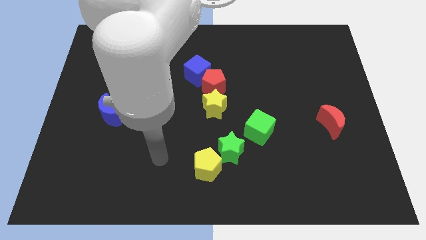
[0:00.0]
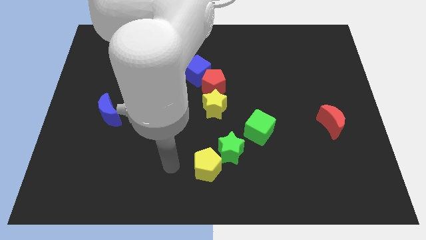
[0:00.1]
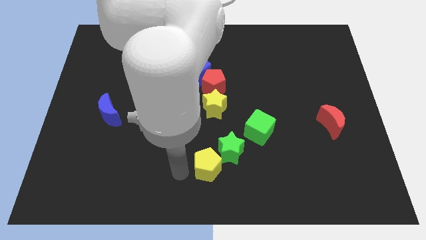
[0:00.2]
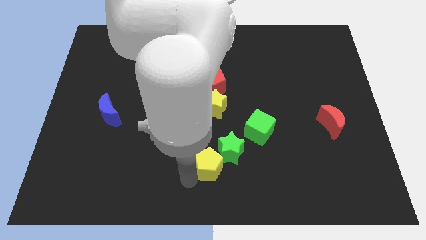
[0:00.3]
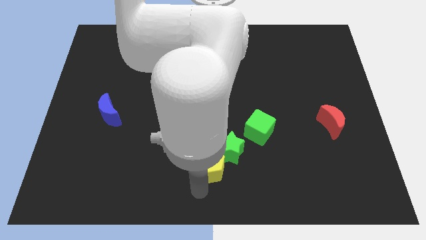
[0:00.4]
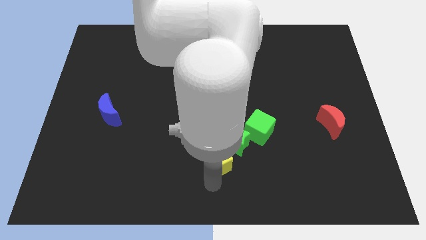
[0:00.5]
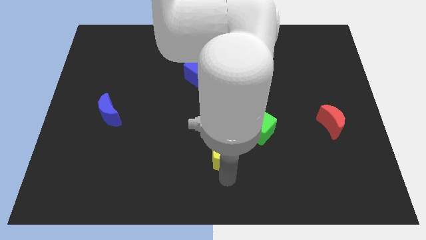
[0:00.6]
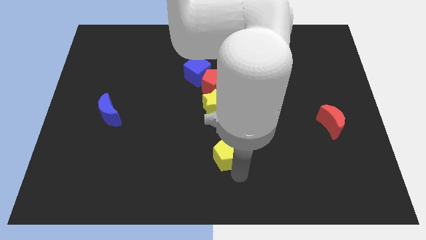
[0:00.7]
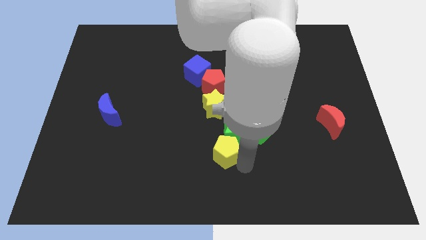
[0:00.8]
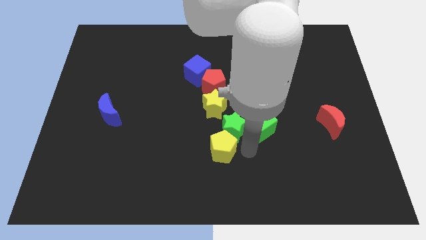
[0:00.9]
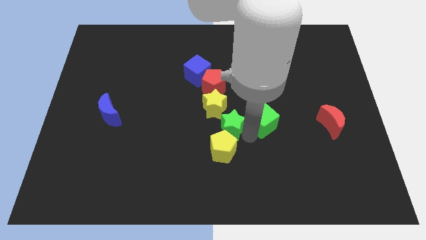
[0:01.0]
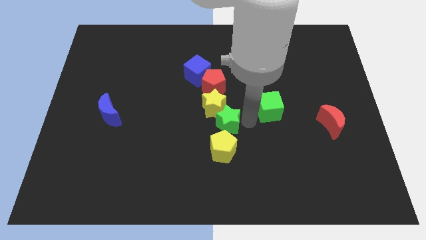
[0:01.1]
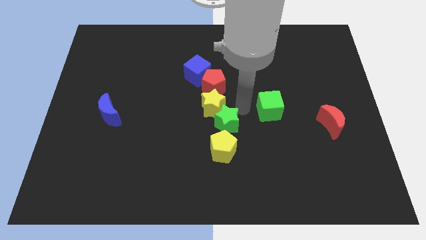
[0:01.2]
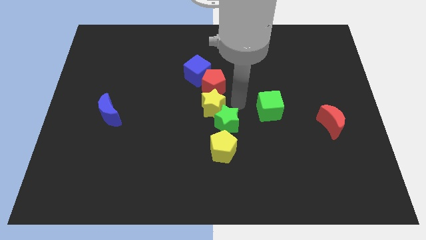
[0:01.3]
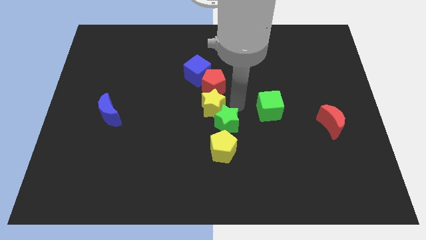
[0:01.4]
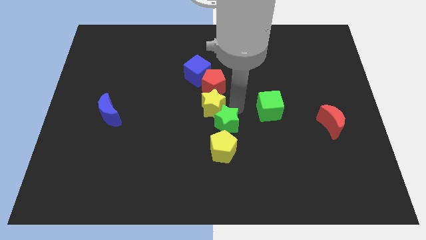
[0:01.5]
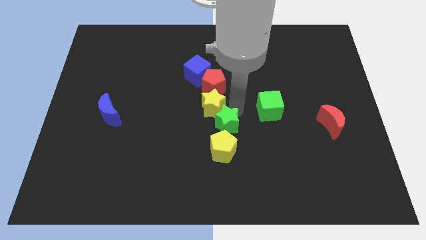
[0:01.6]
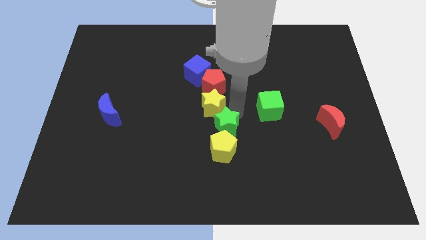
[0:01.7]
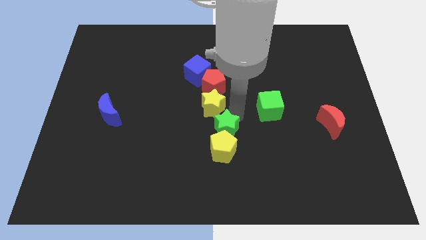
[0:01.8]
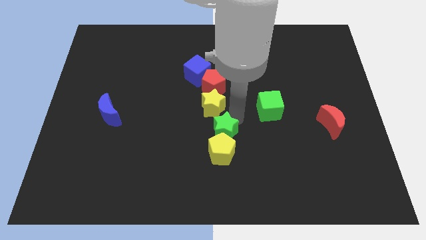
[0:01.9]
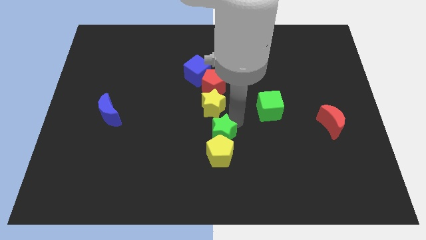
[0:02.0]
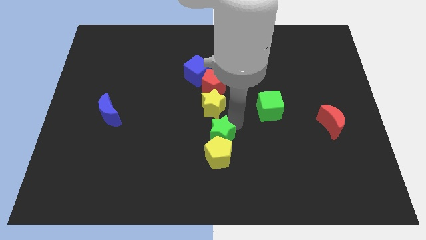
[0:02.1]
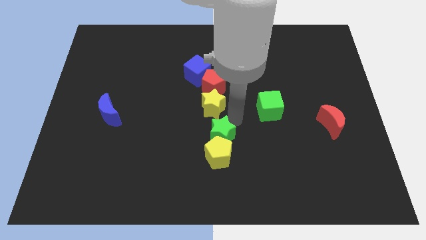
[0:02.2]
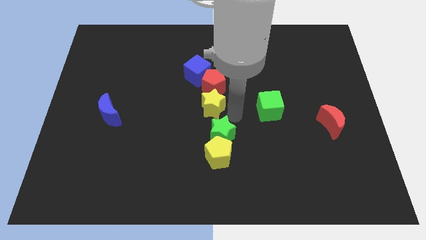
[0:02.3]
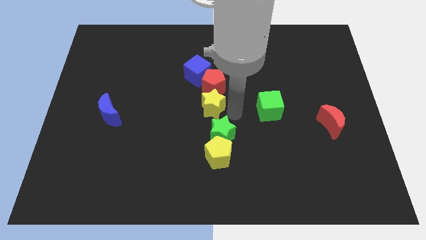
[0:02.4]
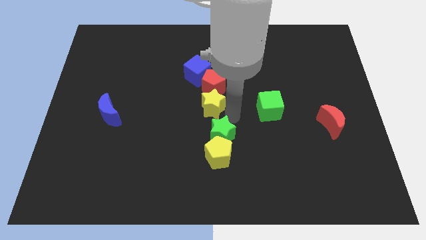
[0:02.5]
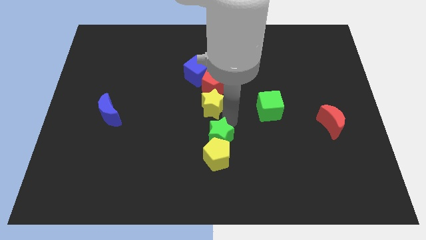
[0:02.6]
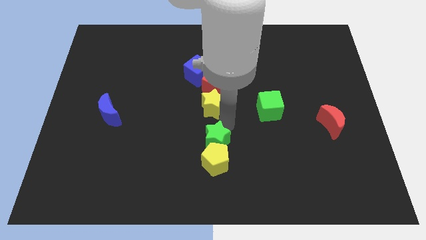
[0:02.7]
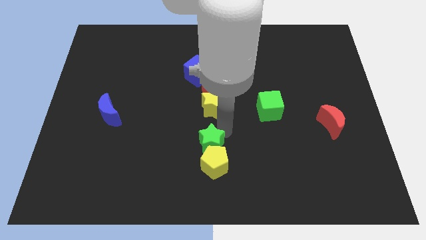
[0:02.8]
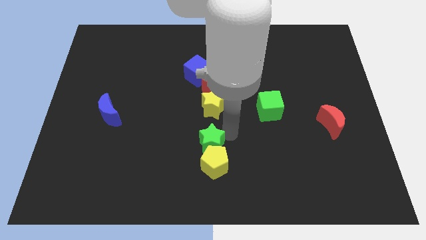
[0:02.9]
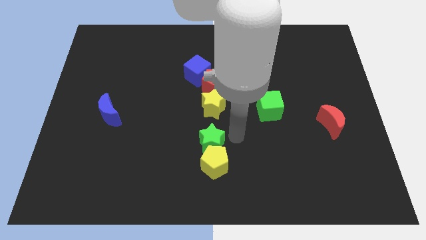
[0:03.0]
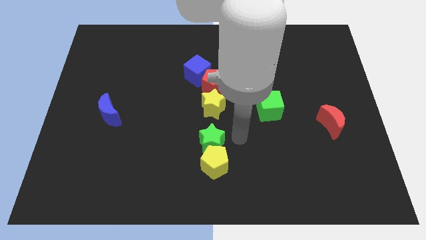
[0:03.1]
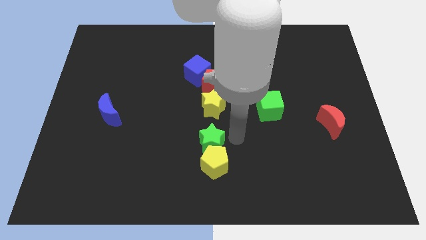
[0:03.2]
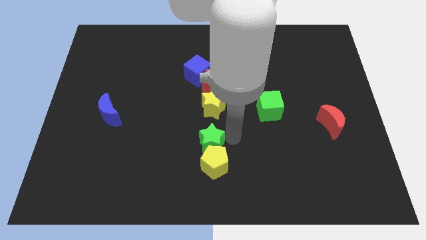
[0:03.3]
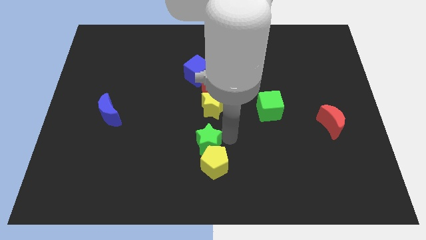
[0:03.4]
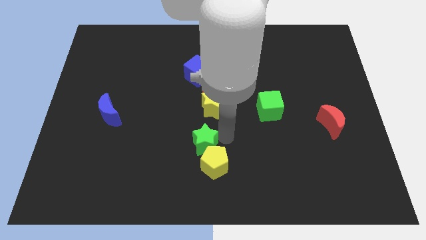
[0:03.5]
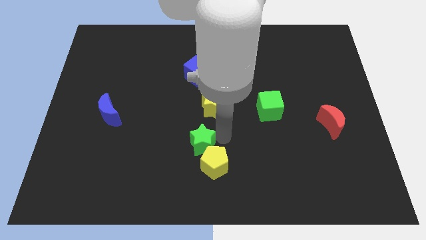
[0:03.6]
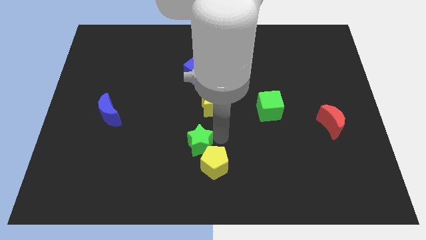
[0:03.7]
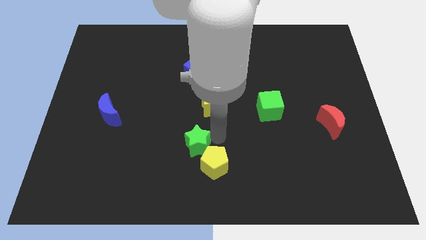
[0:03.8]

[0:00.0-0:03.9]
slightly move the green star to the left

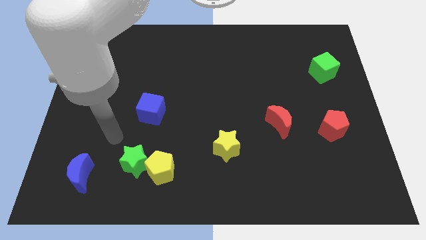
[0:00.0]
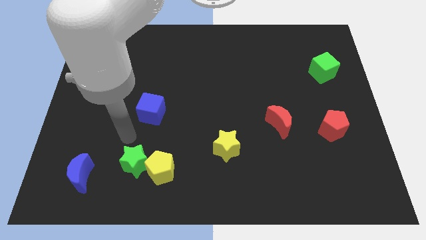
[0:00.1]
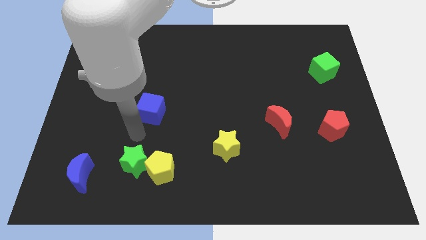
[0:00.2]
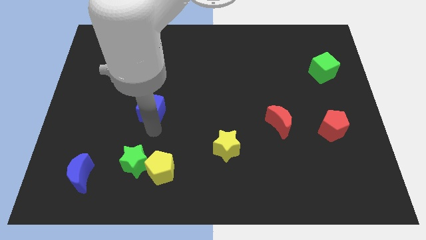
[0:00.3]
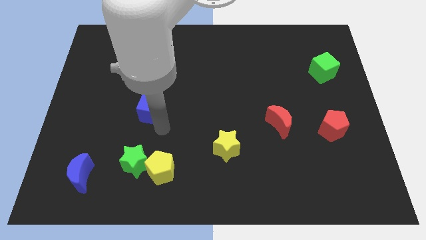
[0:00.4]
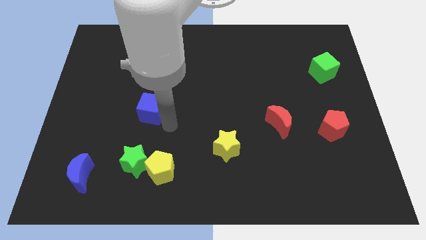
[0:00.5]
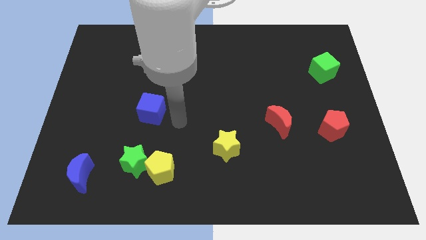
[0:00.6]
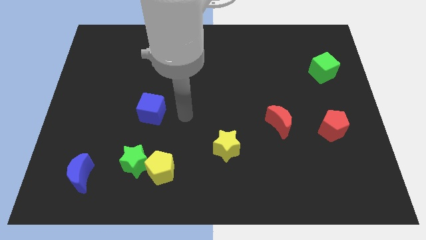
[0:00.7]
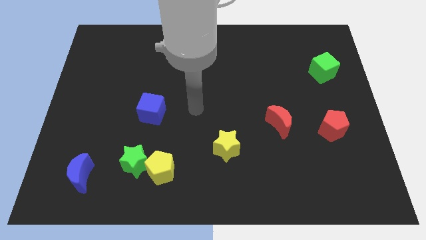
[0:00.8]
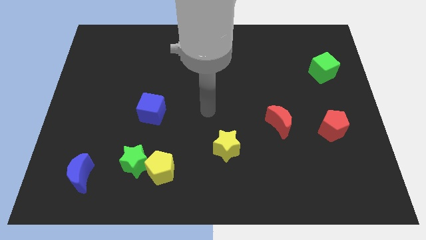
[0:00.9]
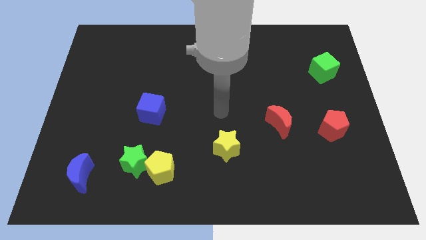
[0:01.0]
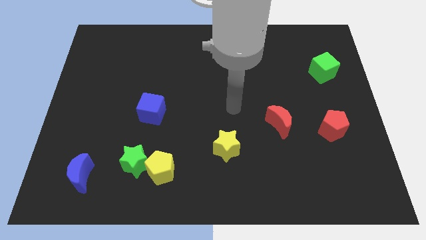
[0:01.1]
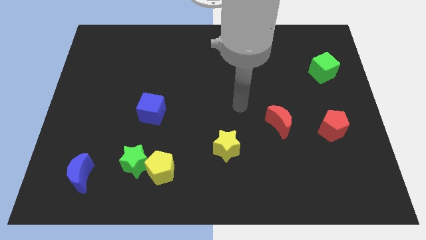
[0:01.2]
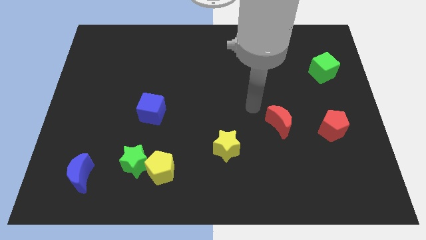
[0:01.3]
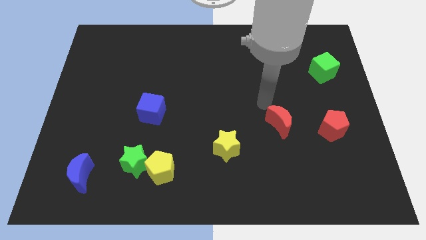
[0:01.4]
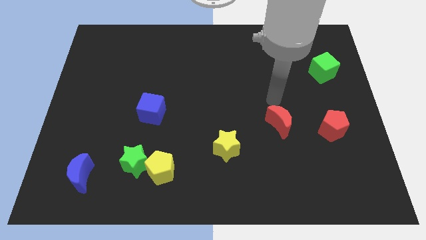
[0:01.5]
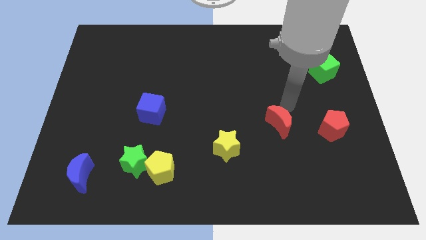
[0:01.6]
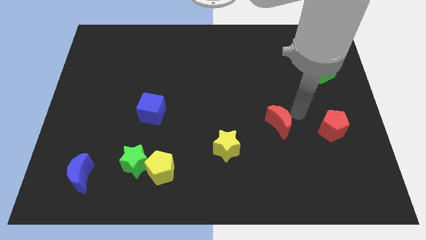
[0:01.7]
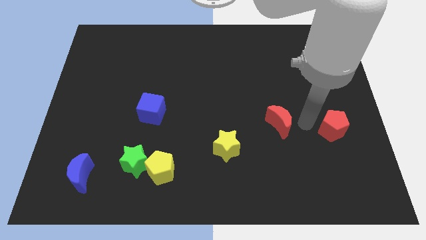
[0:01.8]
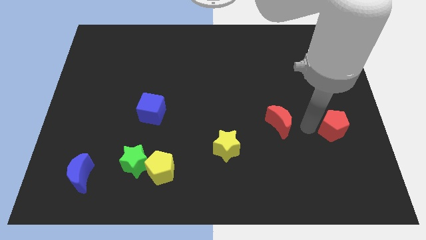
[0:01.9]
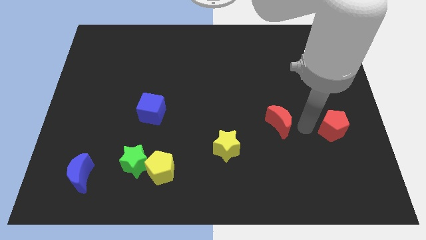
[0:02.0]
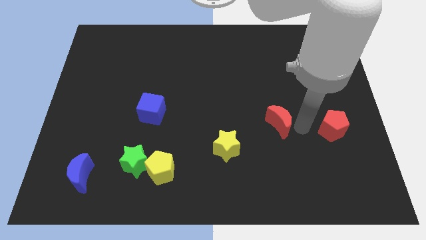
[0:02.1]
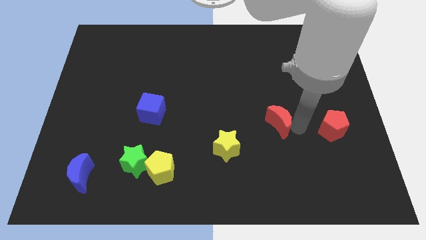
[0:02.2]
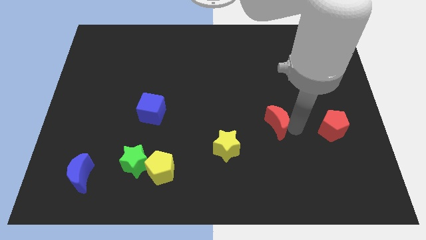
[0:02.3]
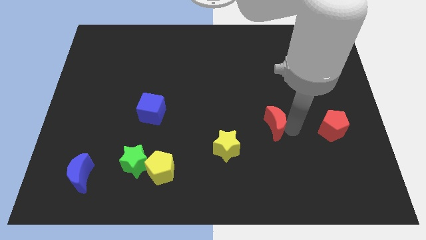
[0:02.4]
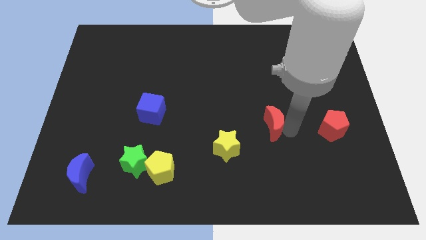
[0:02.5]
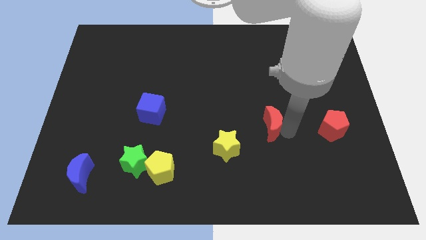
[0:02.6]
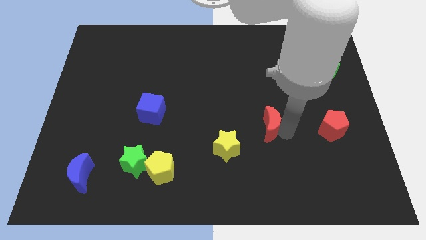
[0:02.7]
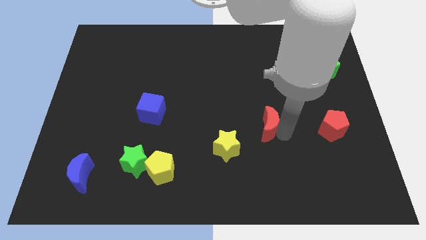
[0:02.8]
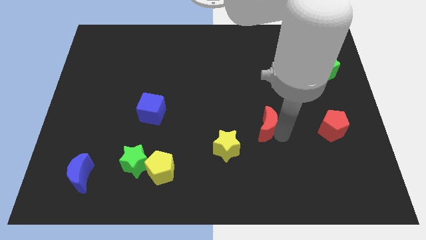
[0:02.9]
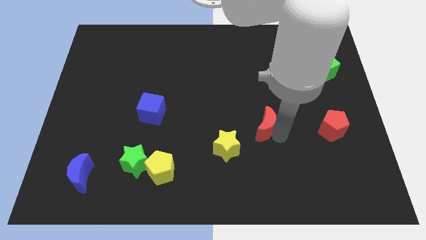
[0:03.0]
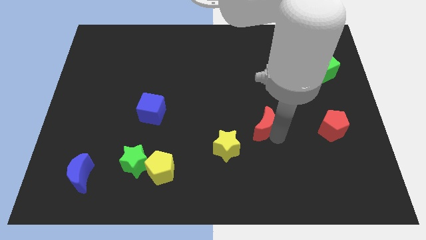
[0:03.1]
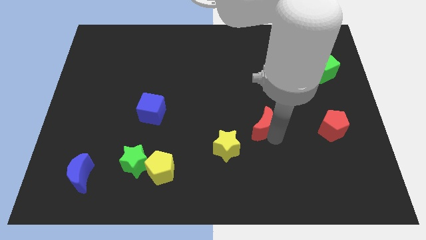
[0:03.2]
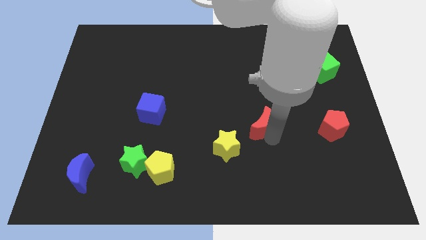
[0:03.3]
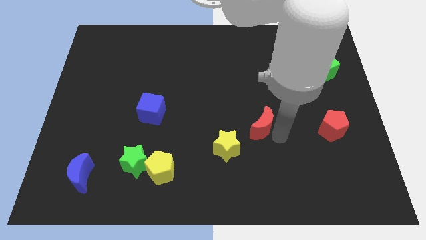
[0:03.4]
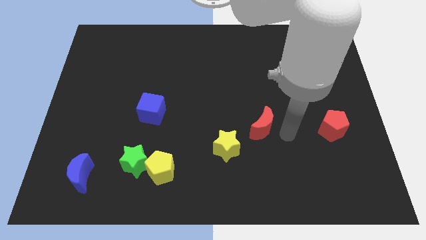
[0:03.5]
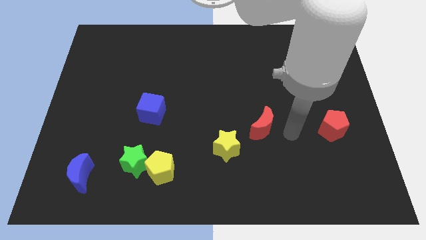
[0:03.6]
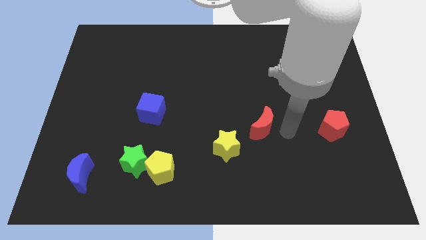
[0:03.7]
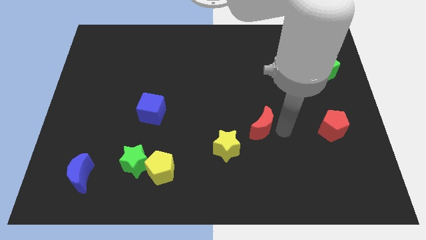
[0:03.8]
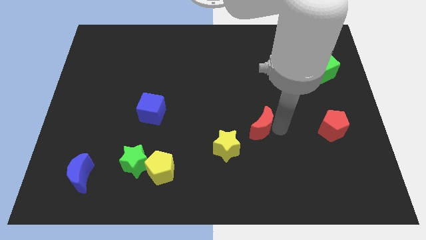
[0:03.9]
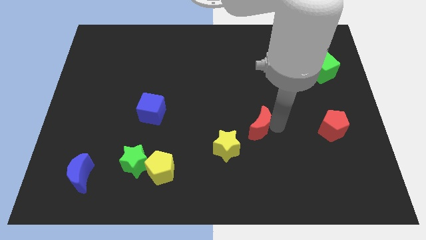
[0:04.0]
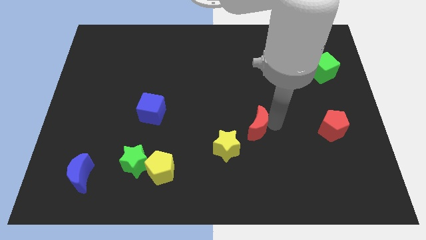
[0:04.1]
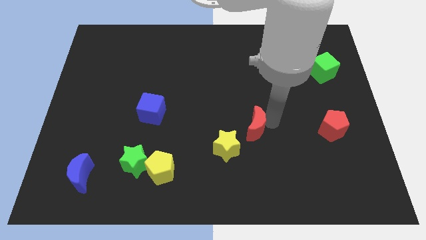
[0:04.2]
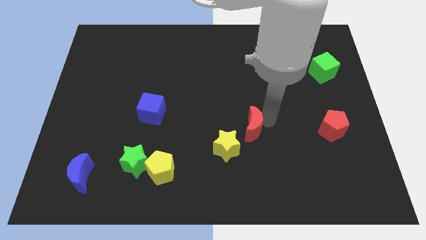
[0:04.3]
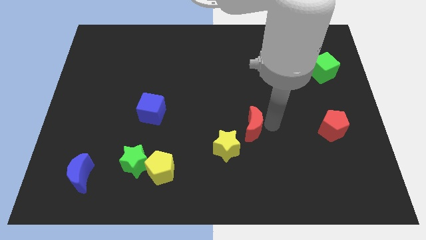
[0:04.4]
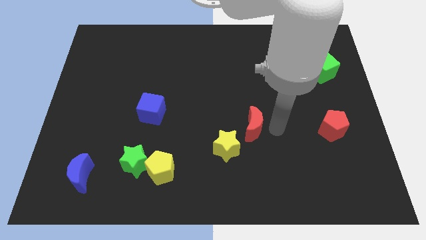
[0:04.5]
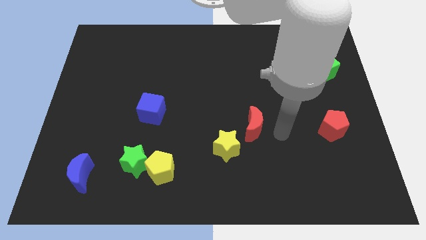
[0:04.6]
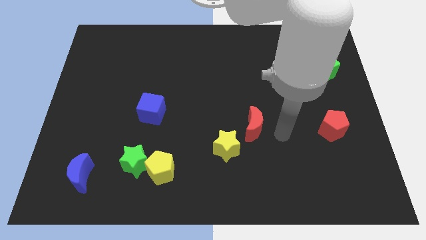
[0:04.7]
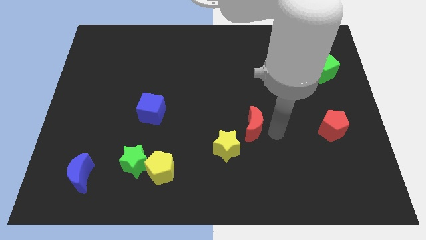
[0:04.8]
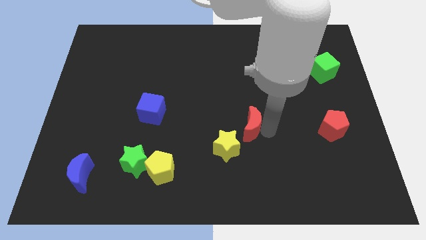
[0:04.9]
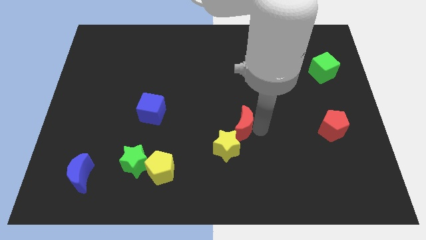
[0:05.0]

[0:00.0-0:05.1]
slightly slide the red moon to the left
